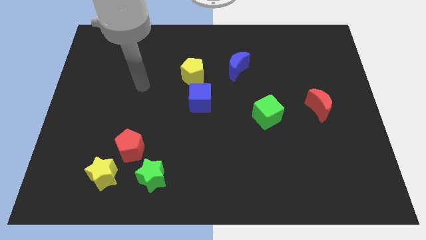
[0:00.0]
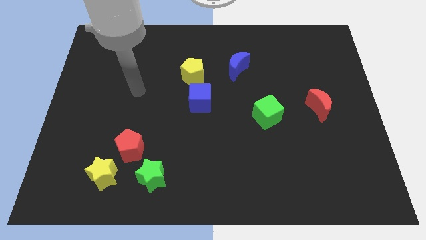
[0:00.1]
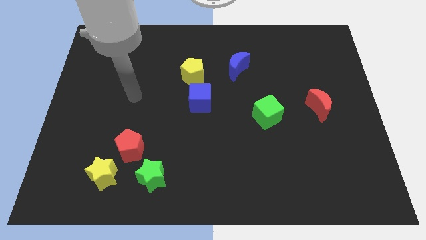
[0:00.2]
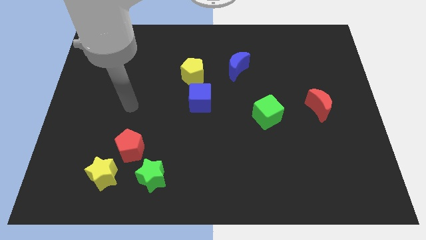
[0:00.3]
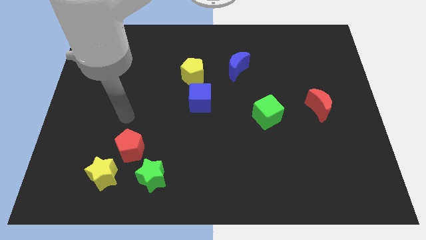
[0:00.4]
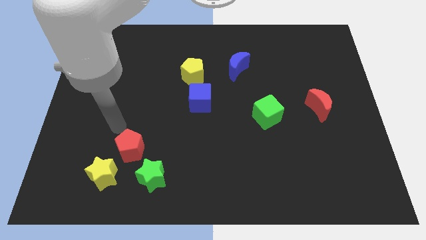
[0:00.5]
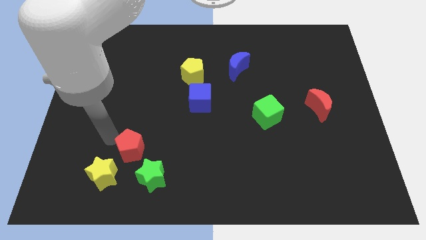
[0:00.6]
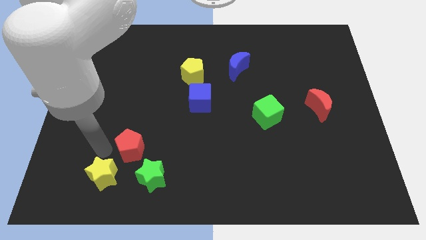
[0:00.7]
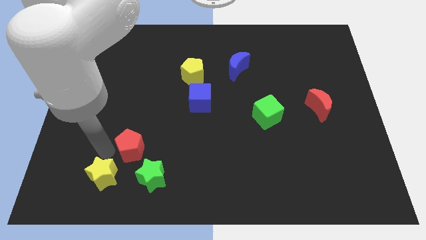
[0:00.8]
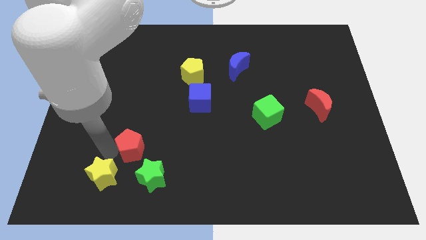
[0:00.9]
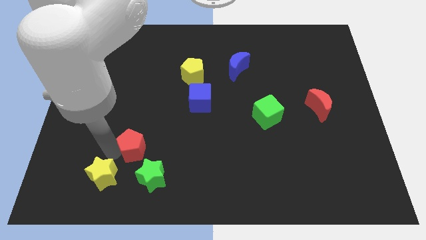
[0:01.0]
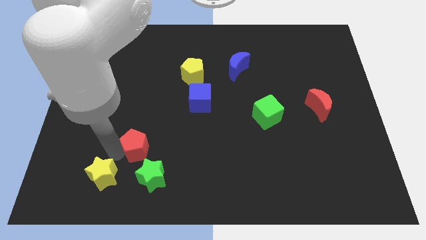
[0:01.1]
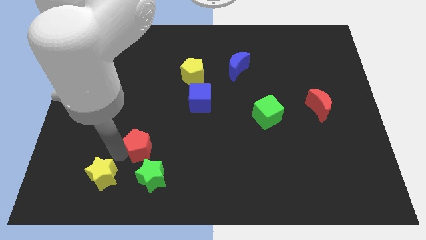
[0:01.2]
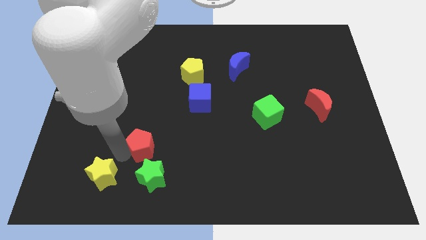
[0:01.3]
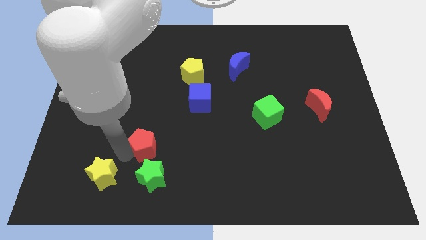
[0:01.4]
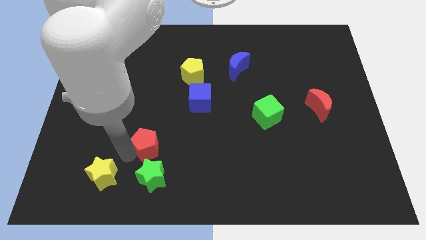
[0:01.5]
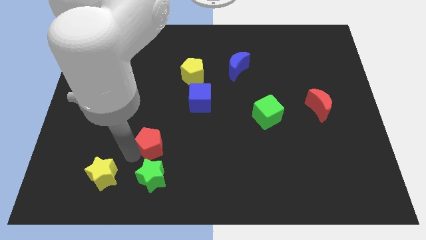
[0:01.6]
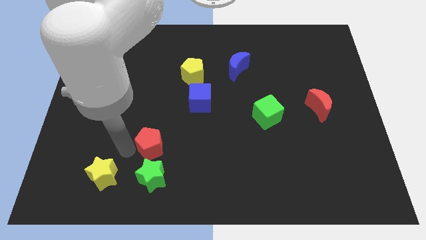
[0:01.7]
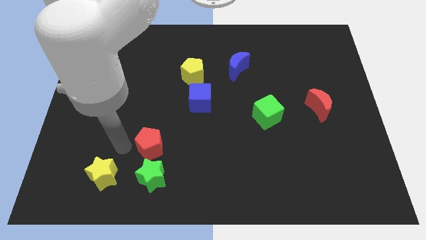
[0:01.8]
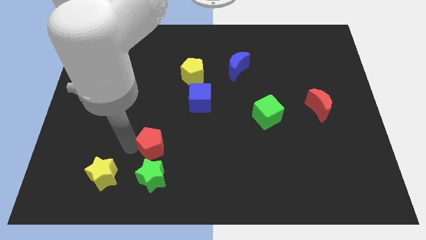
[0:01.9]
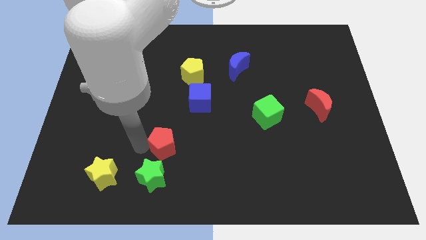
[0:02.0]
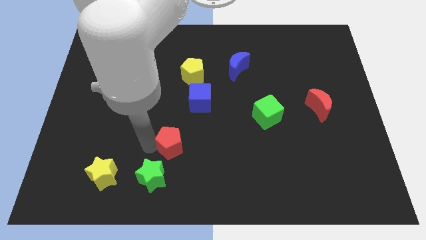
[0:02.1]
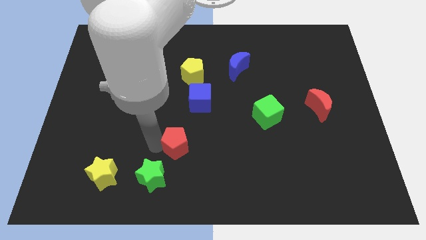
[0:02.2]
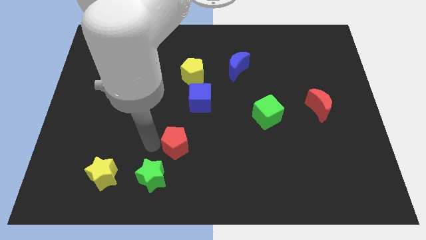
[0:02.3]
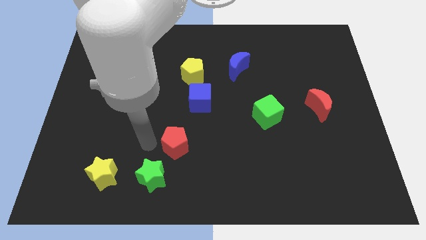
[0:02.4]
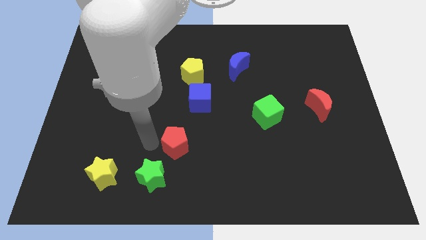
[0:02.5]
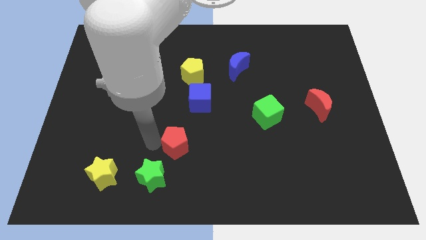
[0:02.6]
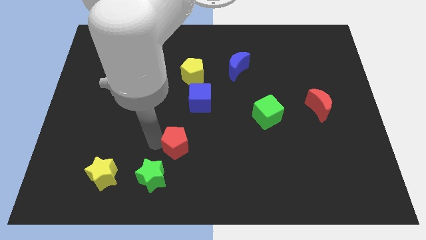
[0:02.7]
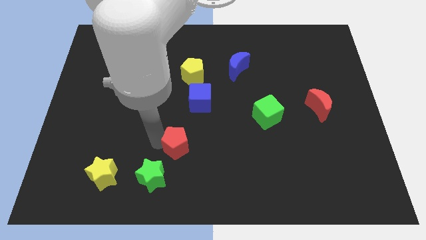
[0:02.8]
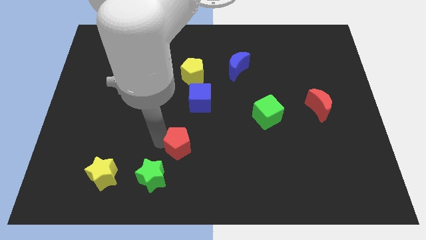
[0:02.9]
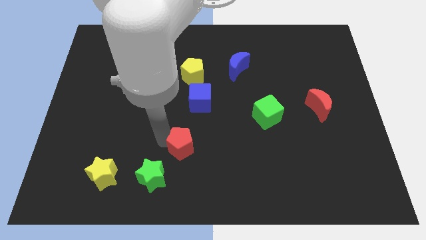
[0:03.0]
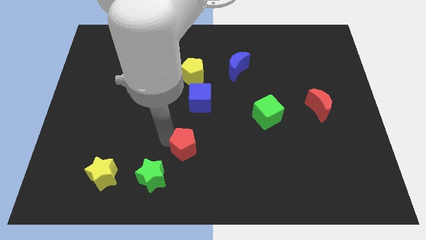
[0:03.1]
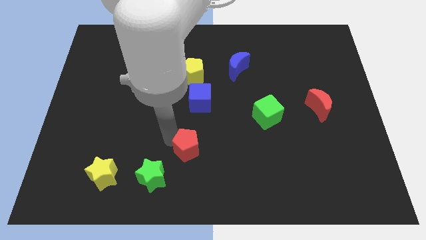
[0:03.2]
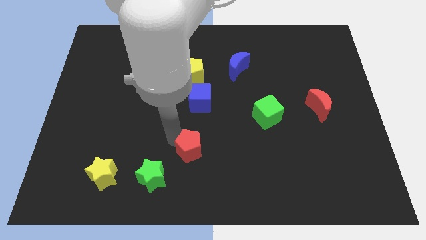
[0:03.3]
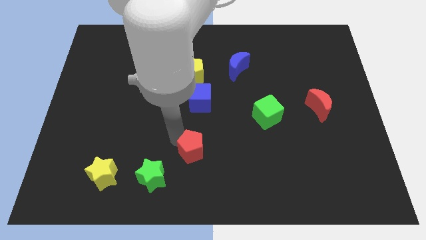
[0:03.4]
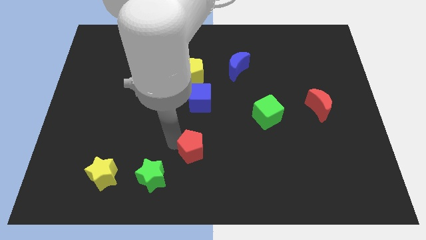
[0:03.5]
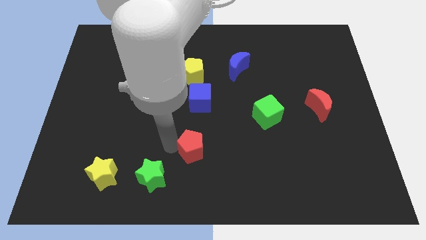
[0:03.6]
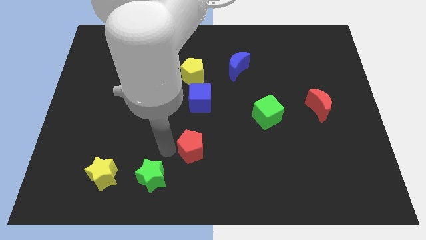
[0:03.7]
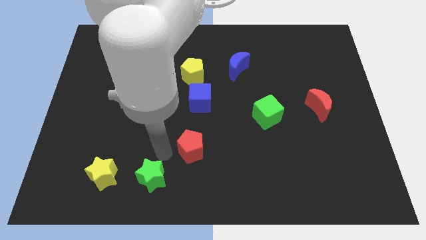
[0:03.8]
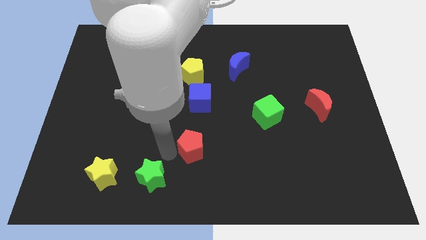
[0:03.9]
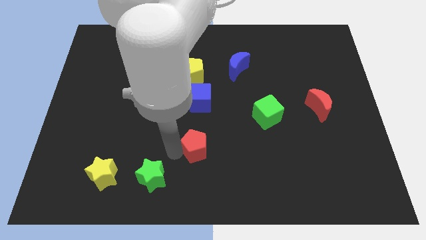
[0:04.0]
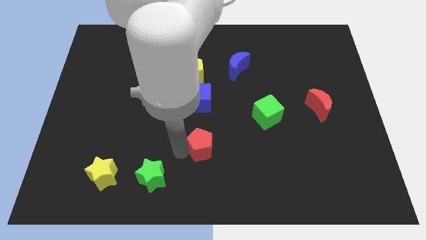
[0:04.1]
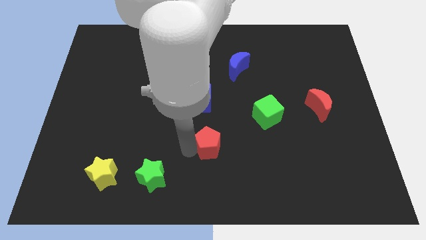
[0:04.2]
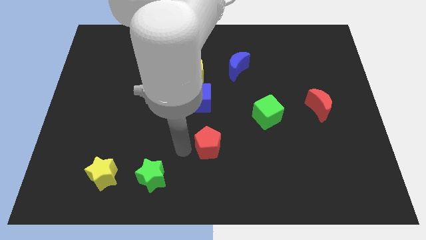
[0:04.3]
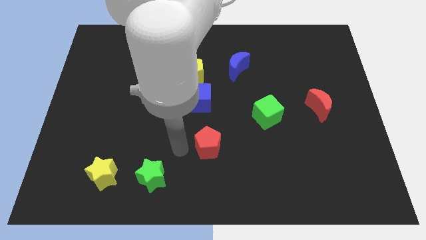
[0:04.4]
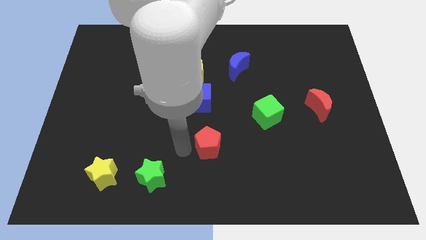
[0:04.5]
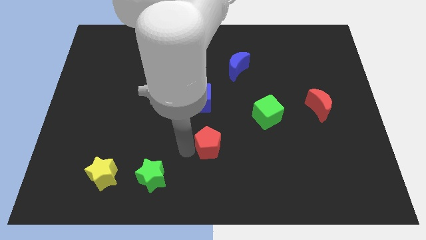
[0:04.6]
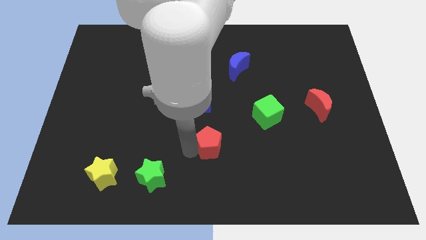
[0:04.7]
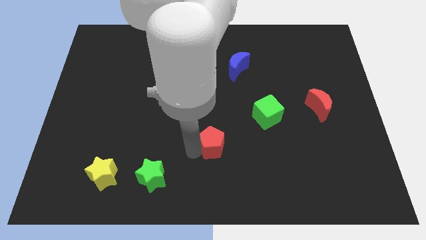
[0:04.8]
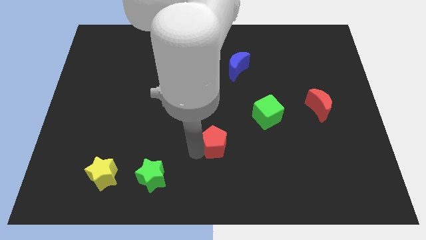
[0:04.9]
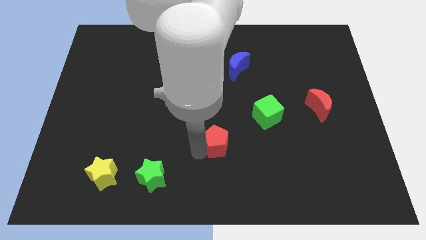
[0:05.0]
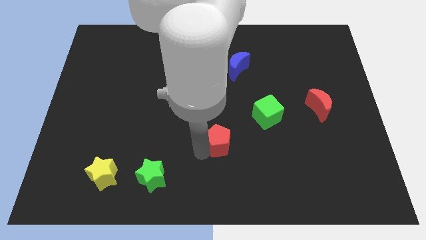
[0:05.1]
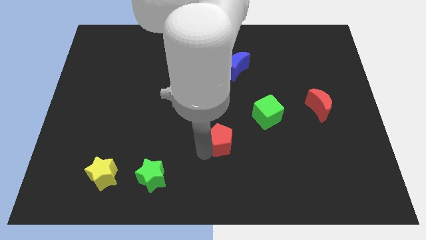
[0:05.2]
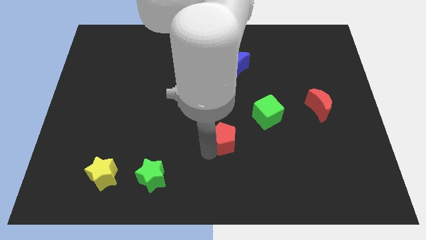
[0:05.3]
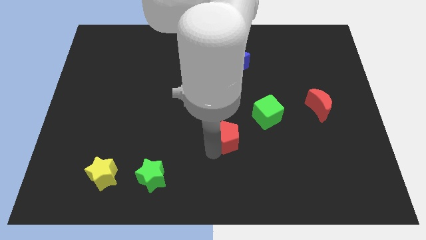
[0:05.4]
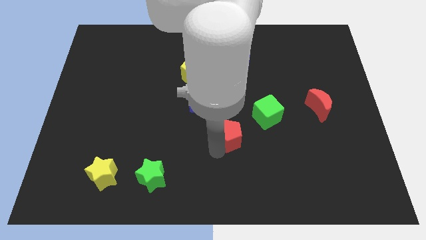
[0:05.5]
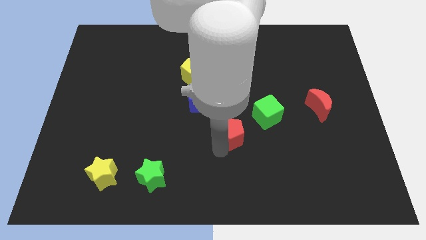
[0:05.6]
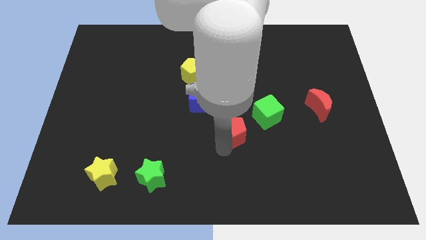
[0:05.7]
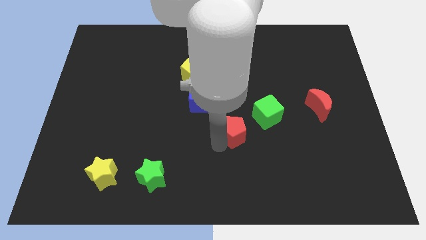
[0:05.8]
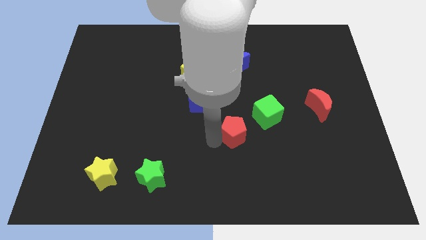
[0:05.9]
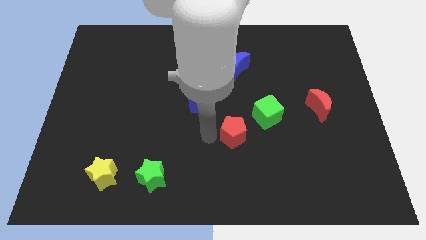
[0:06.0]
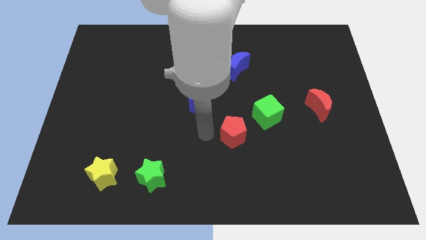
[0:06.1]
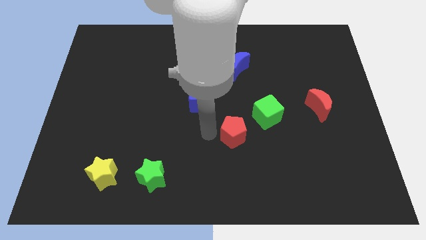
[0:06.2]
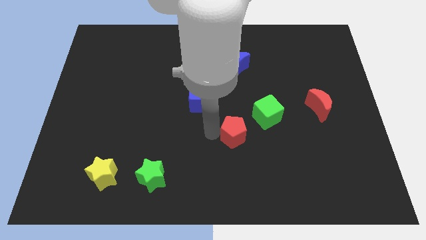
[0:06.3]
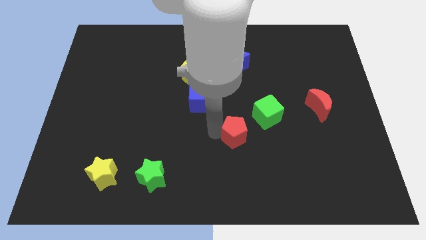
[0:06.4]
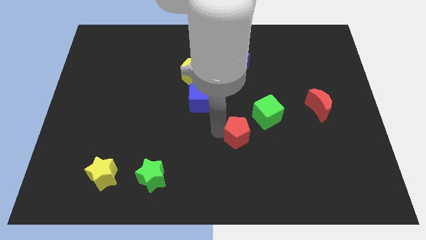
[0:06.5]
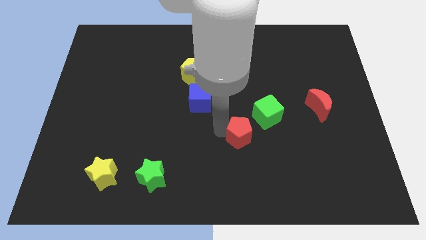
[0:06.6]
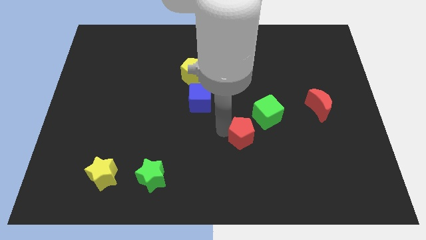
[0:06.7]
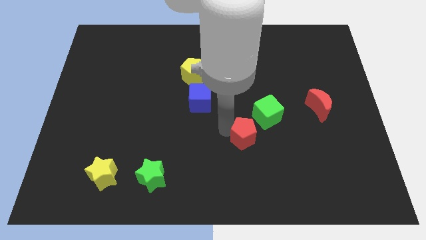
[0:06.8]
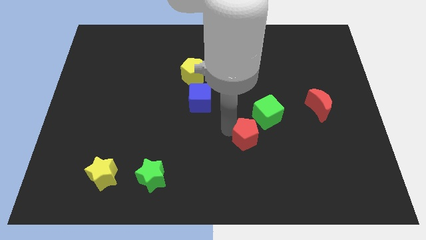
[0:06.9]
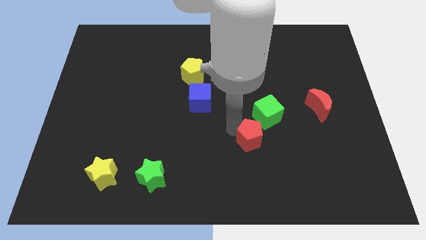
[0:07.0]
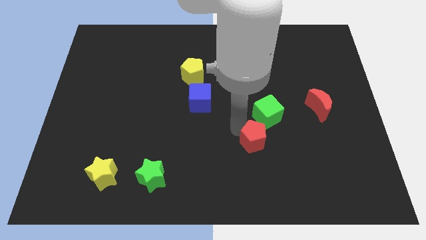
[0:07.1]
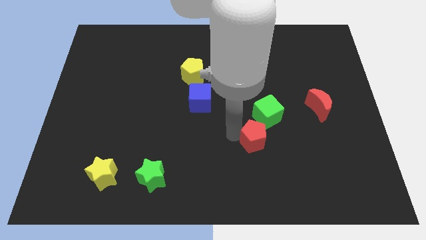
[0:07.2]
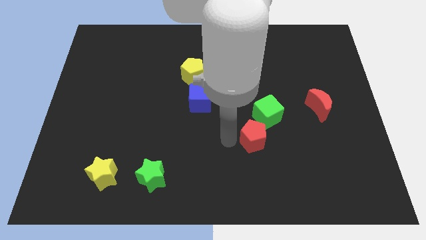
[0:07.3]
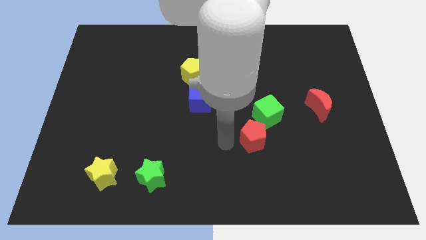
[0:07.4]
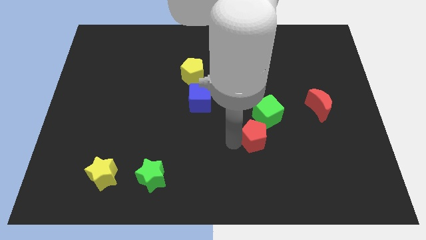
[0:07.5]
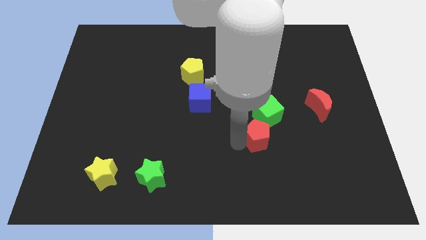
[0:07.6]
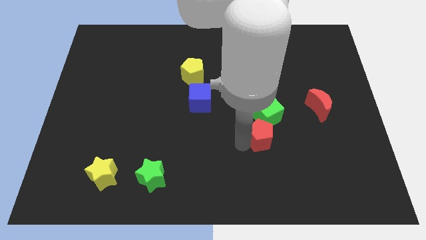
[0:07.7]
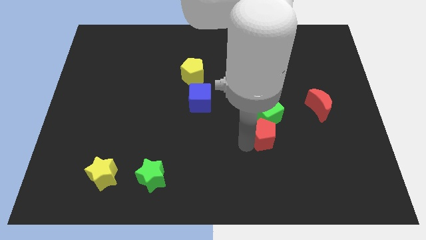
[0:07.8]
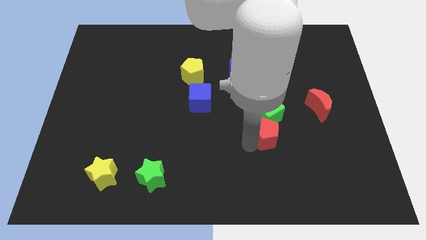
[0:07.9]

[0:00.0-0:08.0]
push the red pentagon diagonally down and to the right of the green cube
